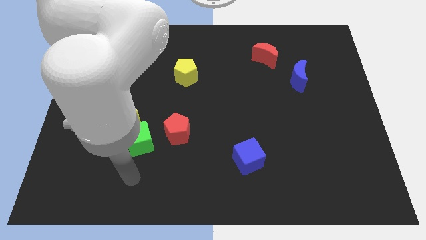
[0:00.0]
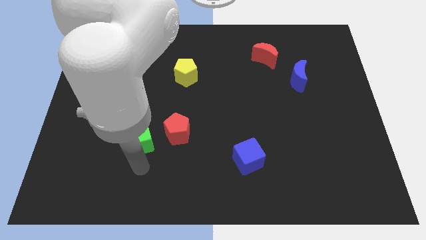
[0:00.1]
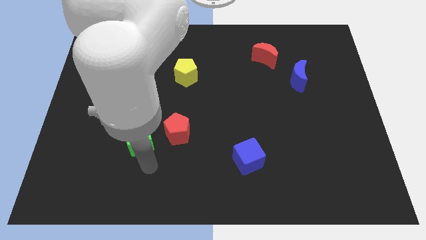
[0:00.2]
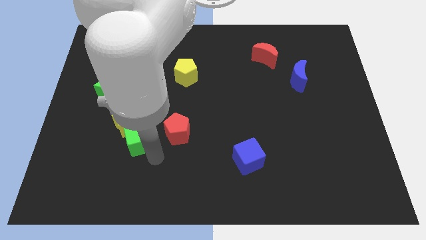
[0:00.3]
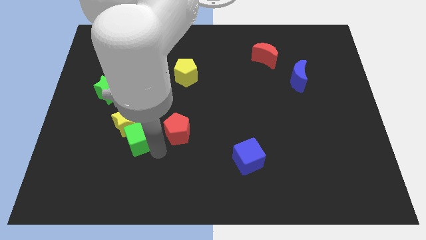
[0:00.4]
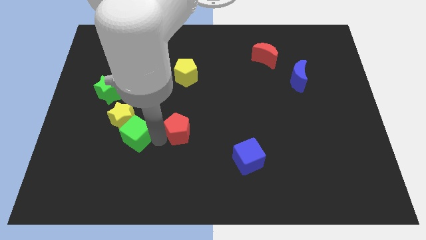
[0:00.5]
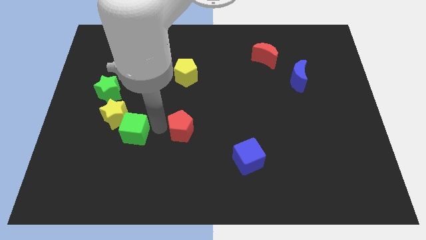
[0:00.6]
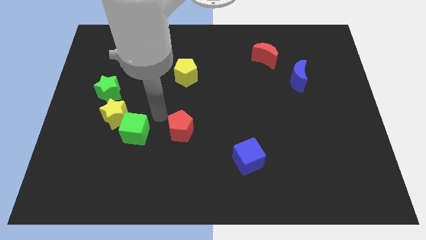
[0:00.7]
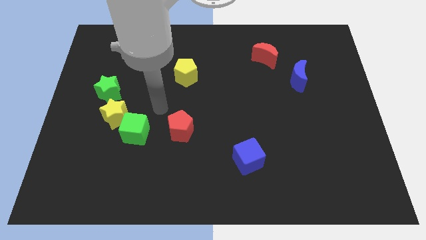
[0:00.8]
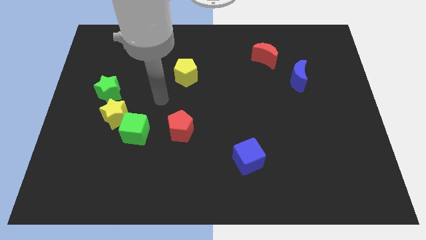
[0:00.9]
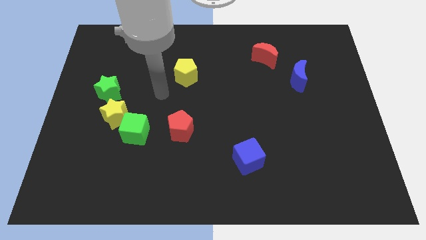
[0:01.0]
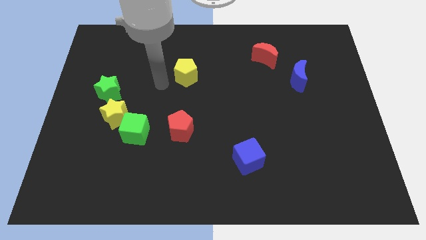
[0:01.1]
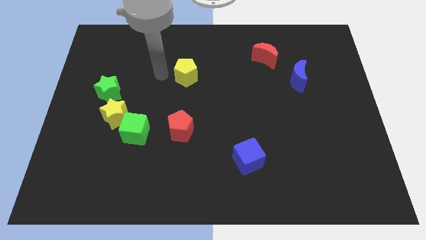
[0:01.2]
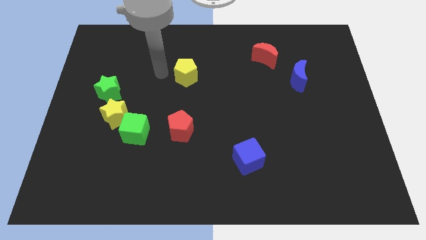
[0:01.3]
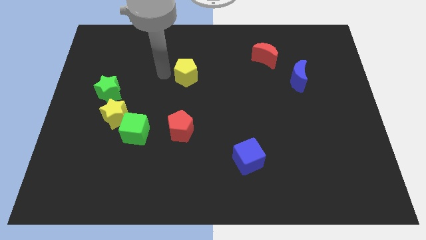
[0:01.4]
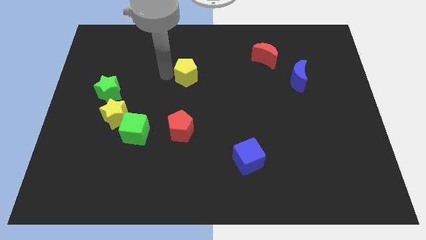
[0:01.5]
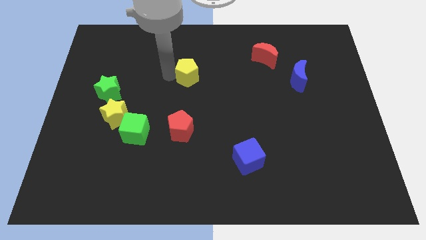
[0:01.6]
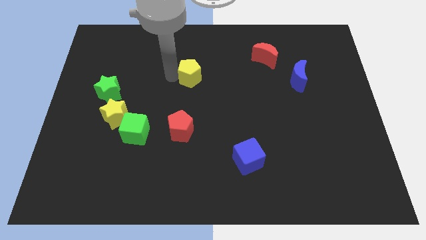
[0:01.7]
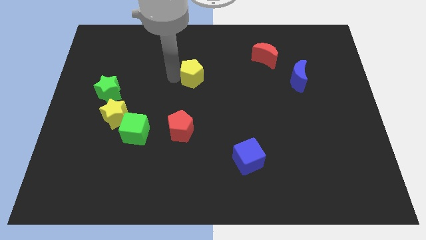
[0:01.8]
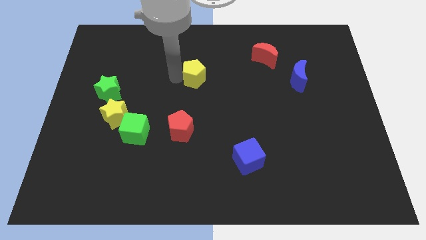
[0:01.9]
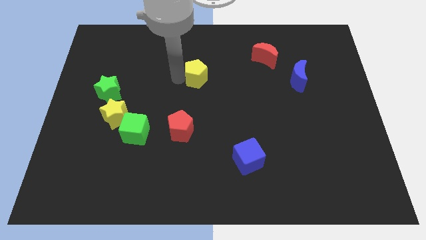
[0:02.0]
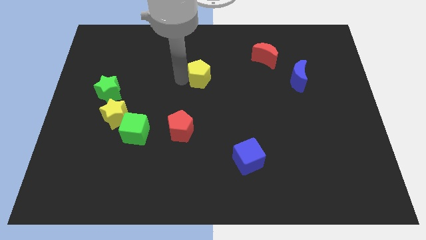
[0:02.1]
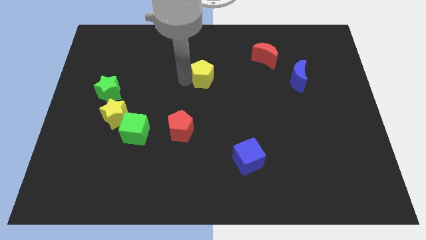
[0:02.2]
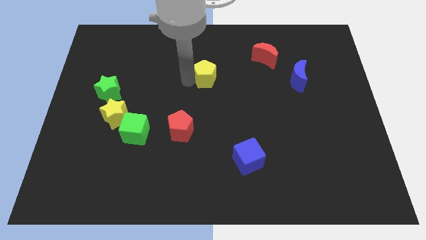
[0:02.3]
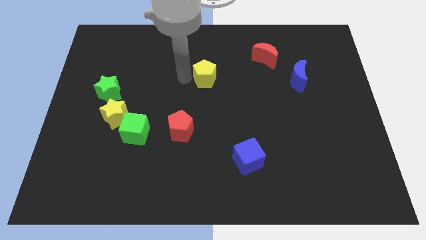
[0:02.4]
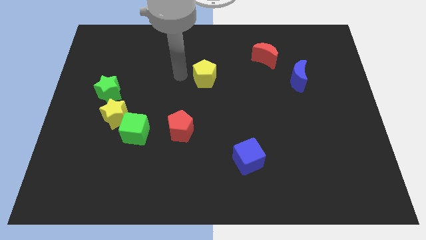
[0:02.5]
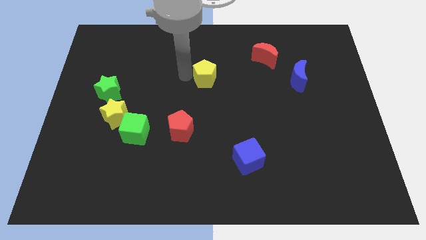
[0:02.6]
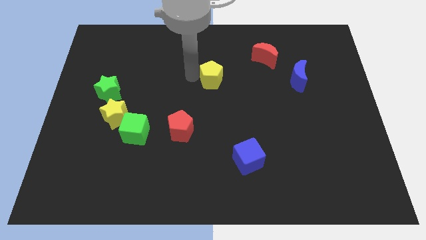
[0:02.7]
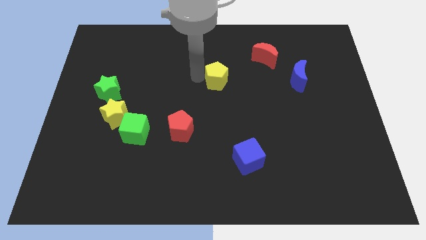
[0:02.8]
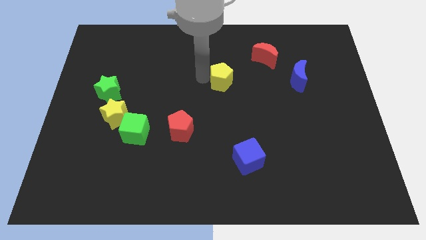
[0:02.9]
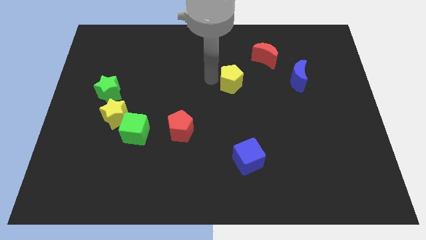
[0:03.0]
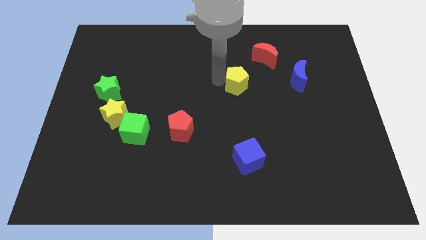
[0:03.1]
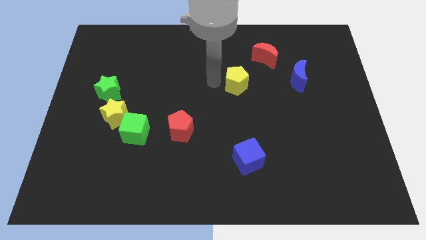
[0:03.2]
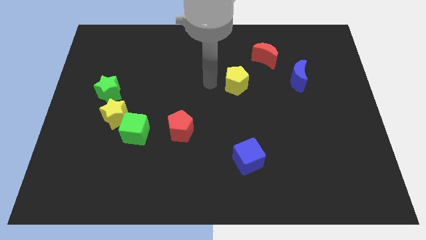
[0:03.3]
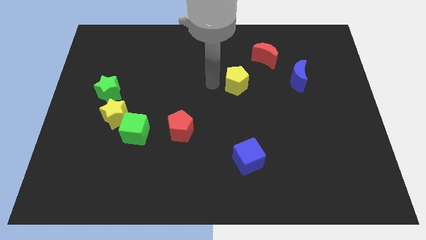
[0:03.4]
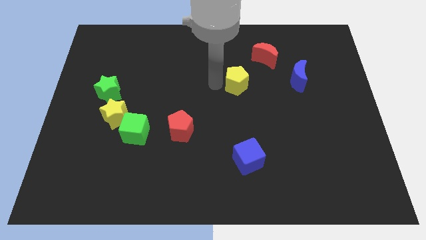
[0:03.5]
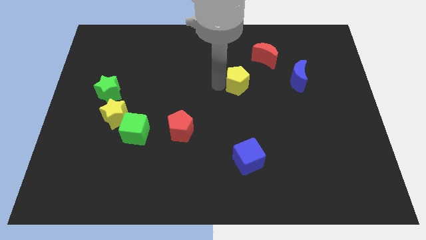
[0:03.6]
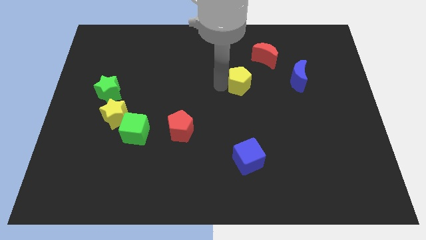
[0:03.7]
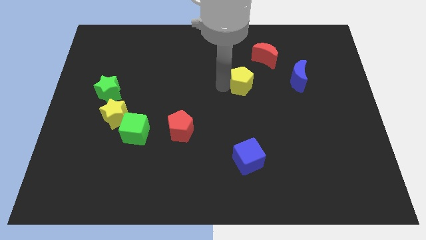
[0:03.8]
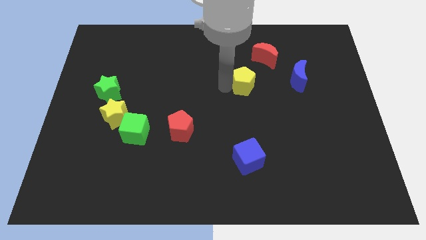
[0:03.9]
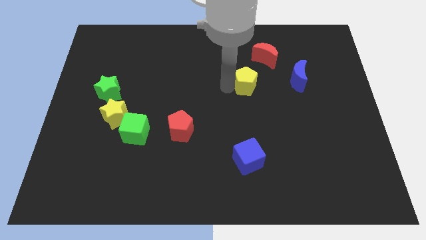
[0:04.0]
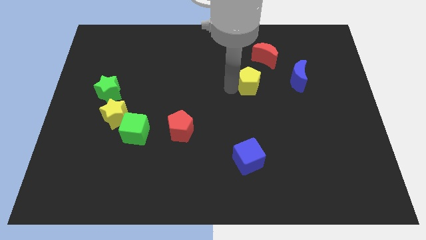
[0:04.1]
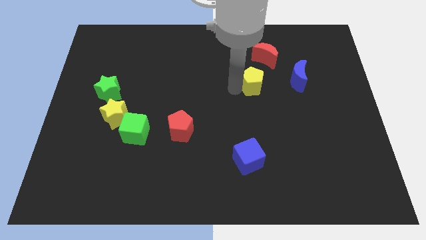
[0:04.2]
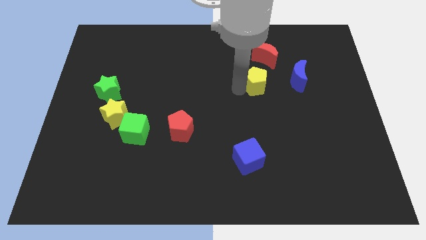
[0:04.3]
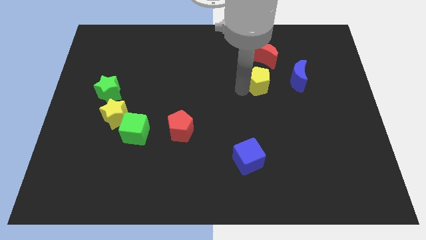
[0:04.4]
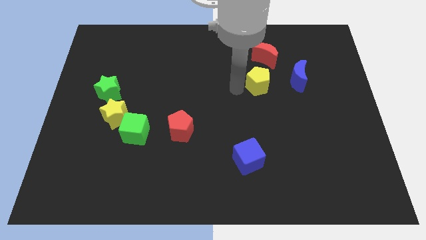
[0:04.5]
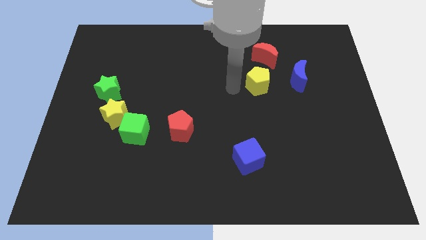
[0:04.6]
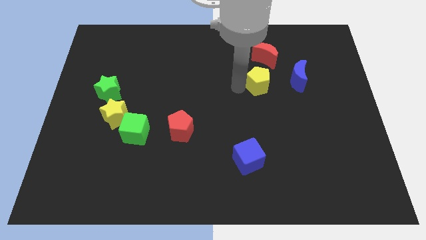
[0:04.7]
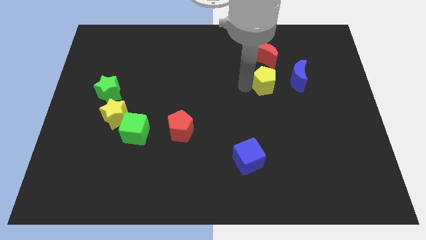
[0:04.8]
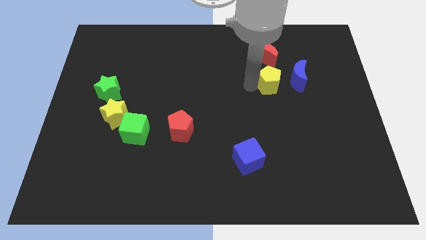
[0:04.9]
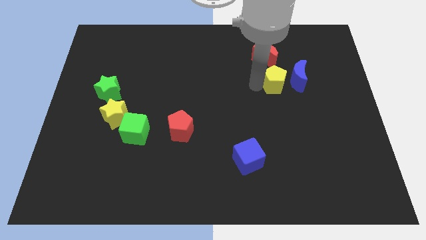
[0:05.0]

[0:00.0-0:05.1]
move the yellow pentagon close to the blue moon

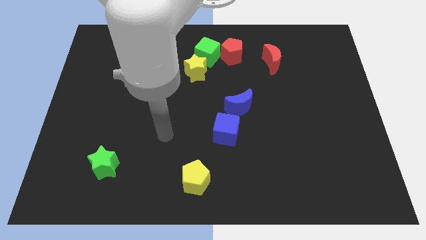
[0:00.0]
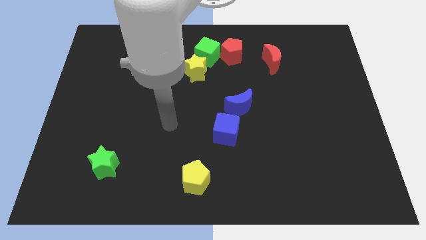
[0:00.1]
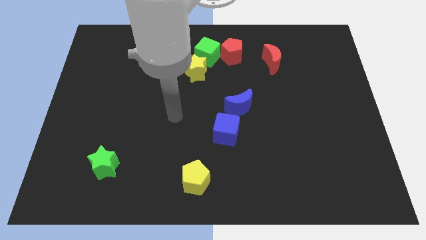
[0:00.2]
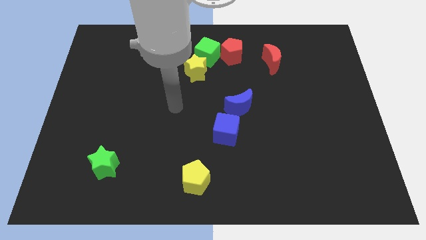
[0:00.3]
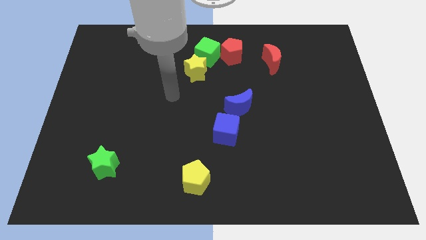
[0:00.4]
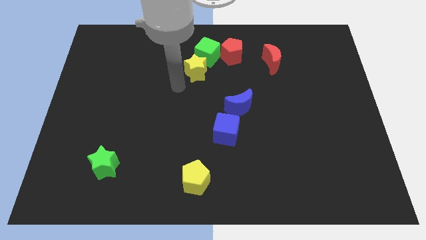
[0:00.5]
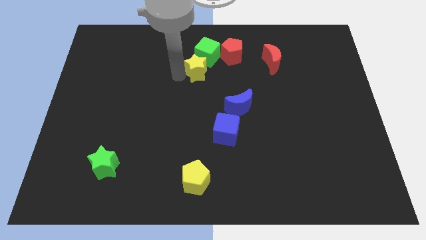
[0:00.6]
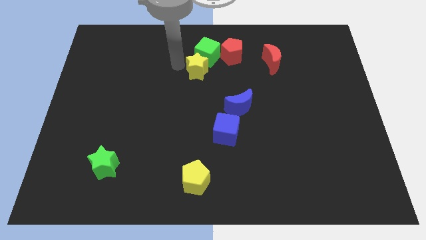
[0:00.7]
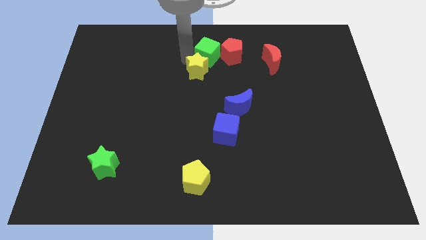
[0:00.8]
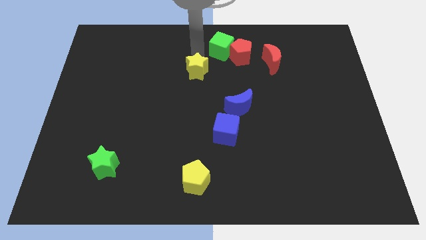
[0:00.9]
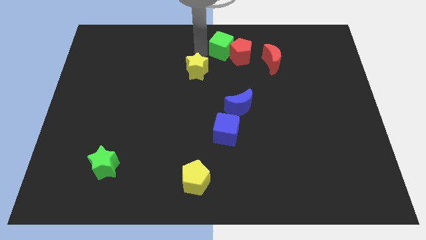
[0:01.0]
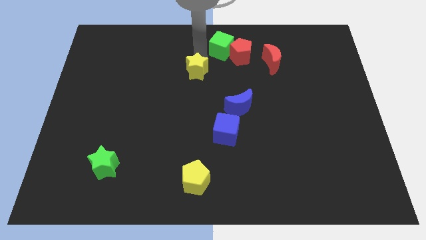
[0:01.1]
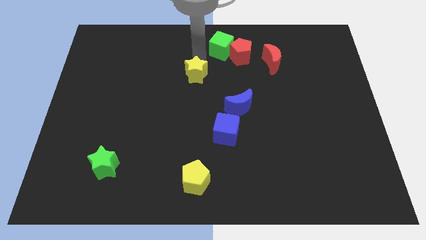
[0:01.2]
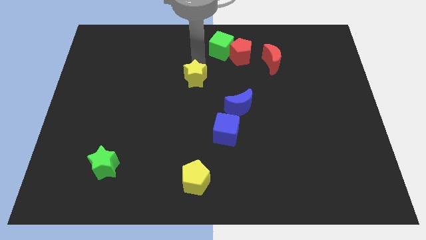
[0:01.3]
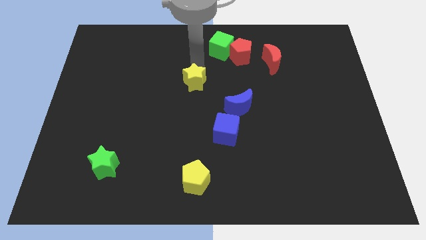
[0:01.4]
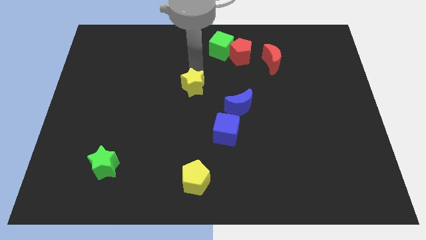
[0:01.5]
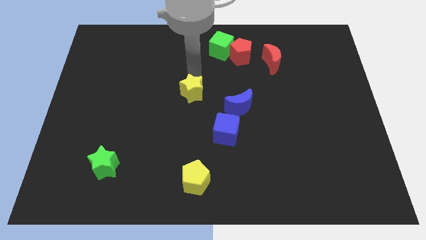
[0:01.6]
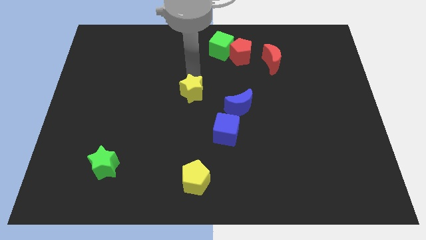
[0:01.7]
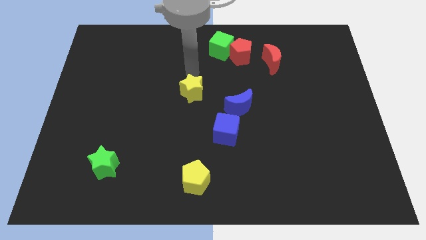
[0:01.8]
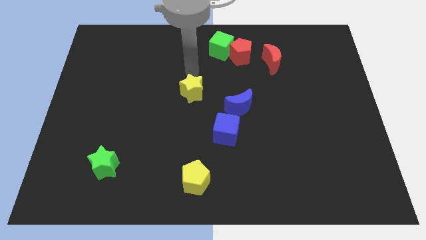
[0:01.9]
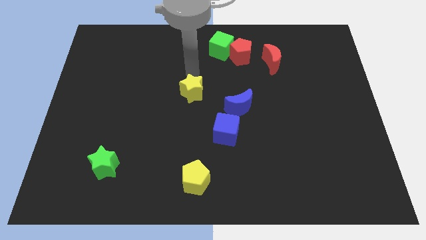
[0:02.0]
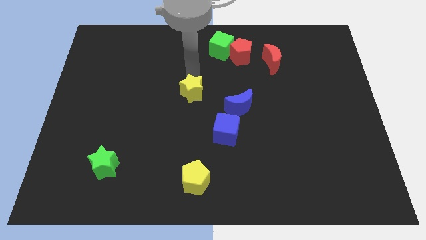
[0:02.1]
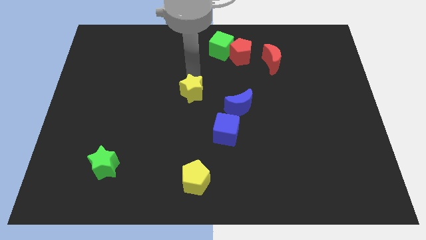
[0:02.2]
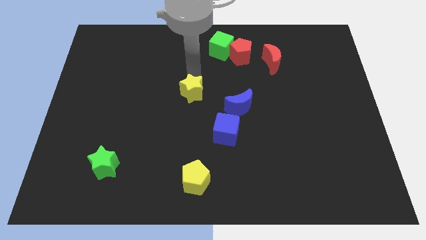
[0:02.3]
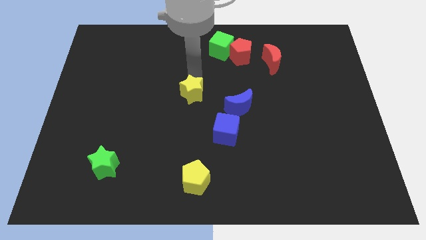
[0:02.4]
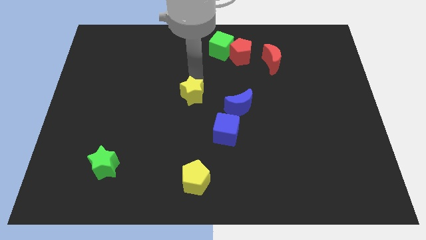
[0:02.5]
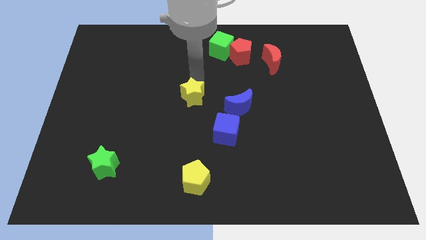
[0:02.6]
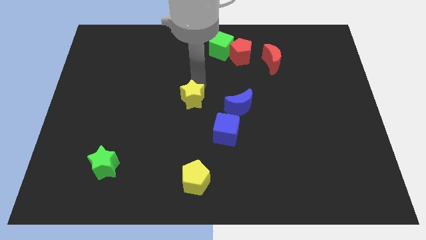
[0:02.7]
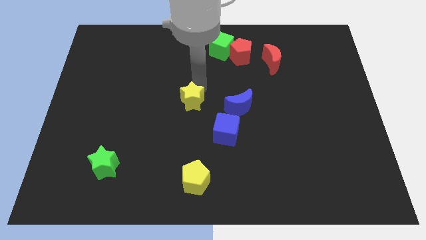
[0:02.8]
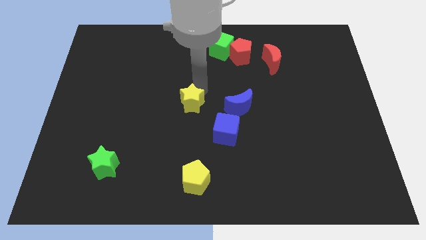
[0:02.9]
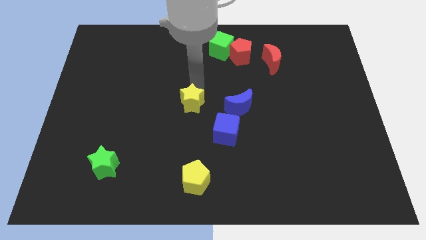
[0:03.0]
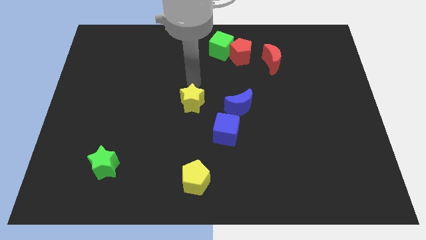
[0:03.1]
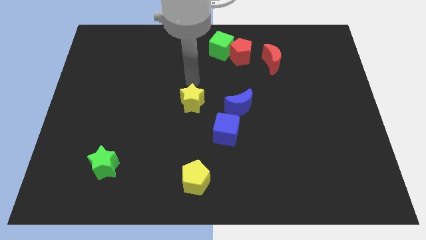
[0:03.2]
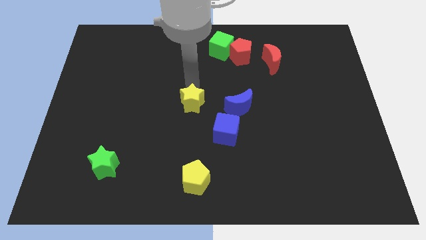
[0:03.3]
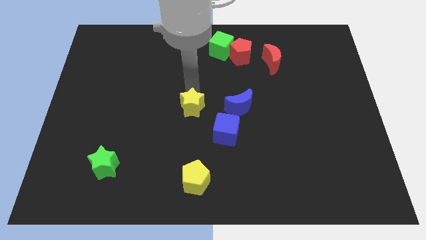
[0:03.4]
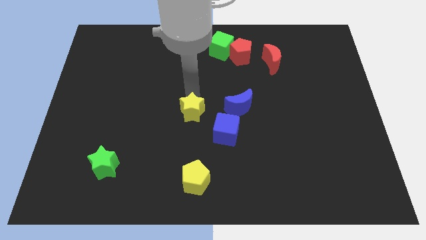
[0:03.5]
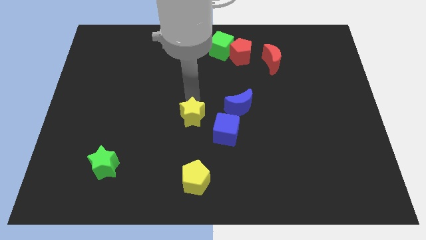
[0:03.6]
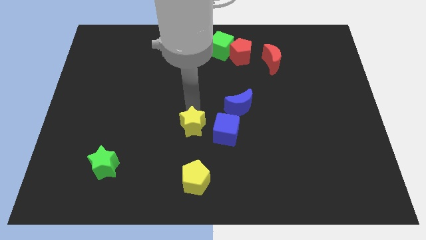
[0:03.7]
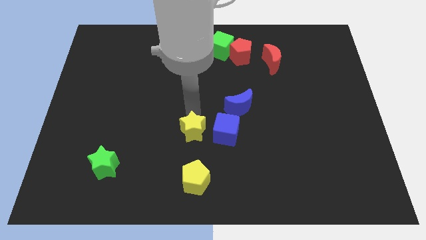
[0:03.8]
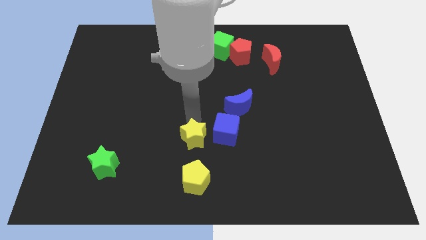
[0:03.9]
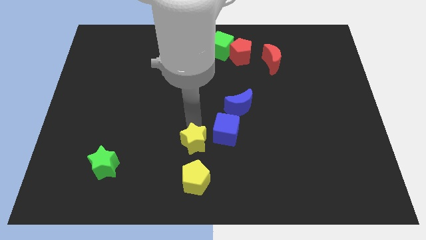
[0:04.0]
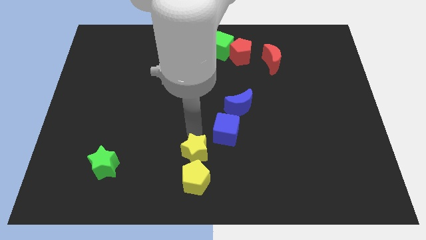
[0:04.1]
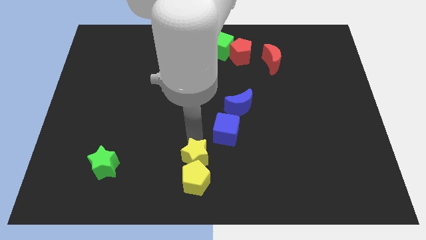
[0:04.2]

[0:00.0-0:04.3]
push the yellow star towards the yellow pentagon
